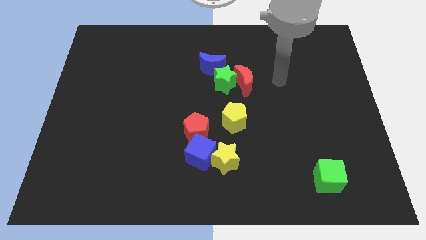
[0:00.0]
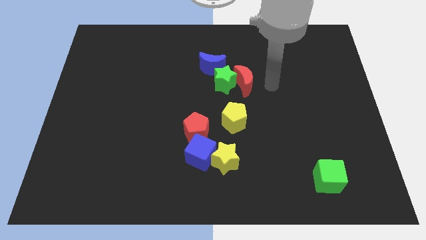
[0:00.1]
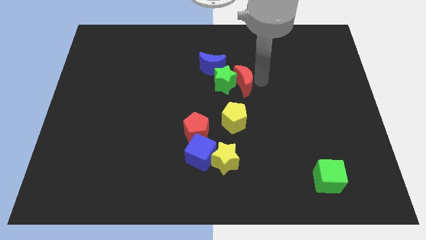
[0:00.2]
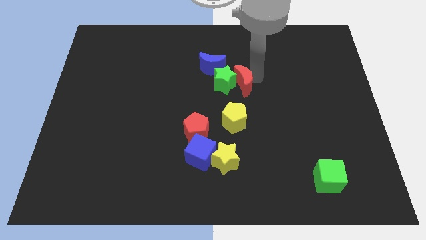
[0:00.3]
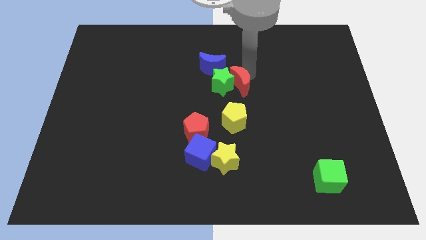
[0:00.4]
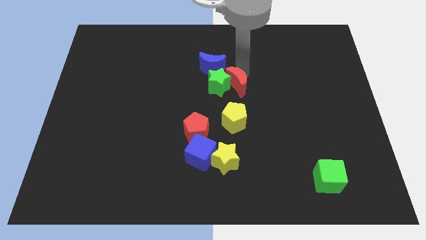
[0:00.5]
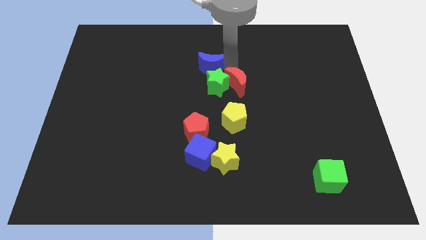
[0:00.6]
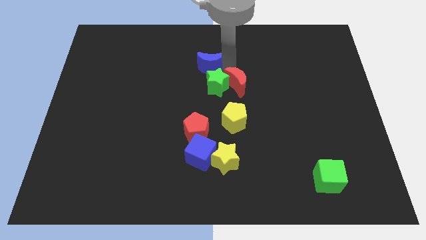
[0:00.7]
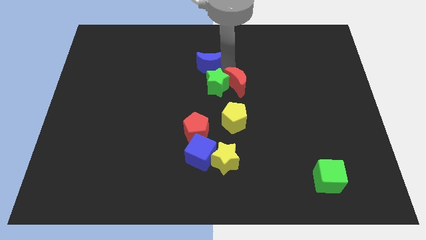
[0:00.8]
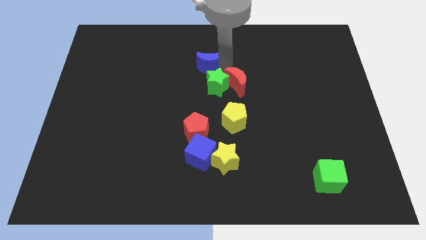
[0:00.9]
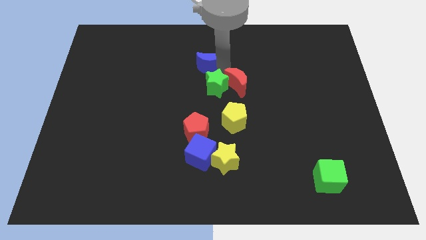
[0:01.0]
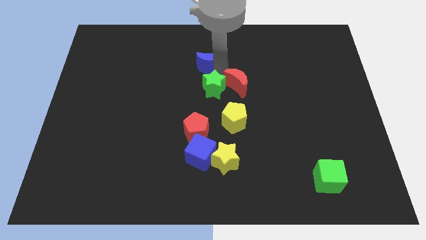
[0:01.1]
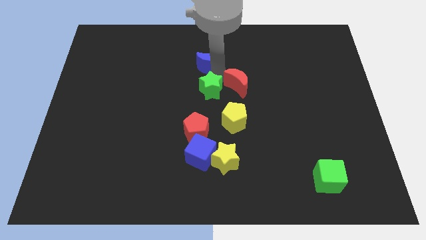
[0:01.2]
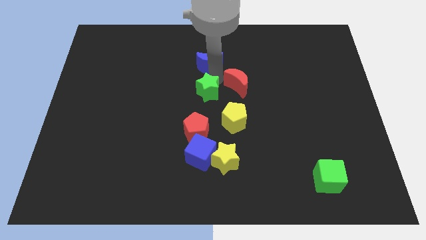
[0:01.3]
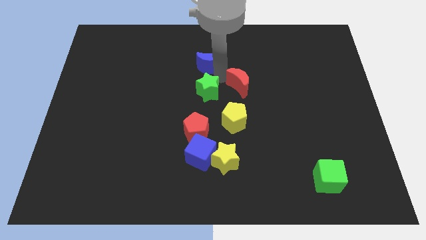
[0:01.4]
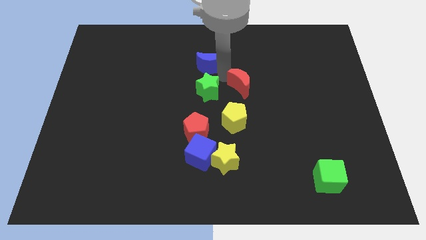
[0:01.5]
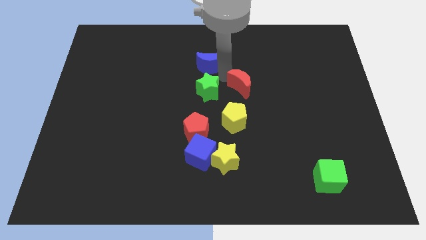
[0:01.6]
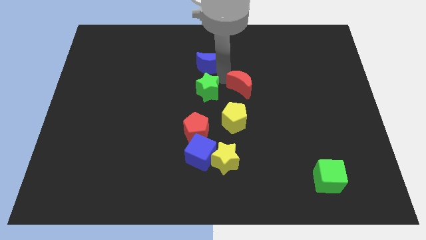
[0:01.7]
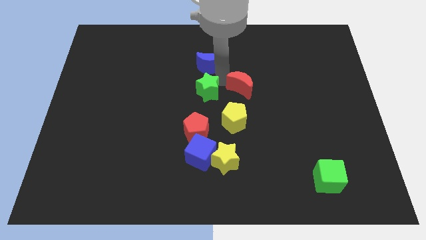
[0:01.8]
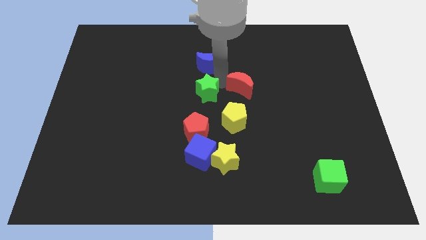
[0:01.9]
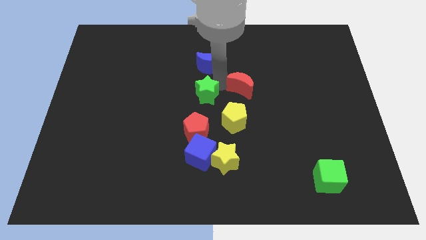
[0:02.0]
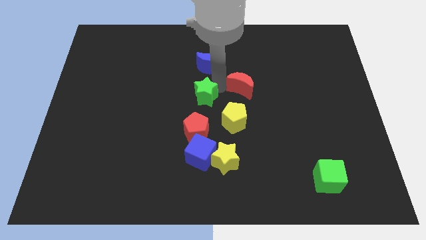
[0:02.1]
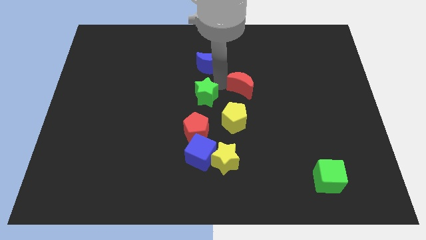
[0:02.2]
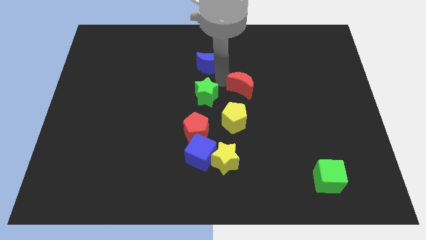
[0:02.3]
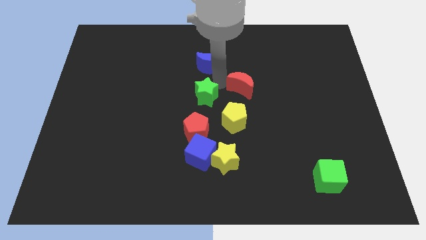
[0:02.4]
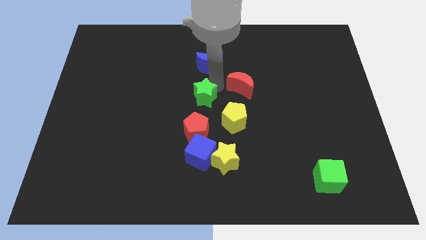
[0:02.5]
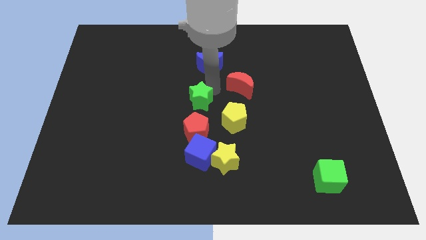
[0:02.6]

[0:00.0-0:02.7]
pull the green star apart from the red moon and blue moon

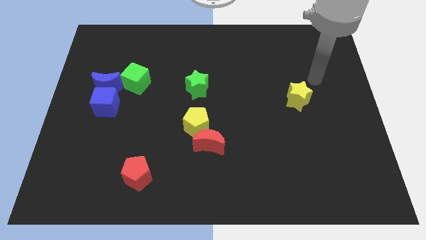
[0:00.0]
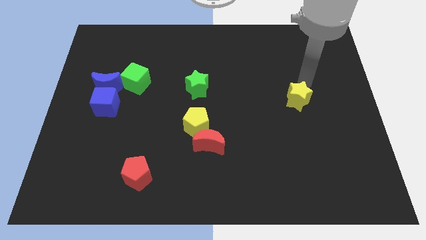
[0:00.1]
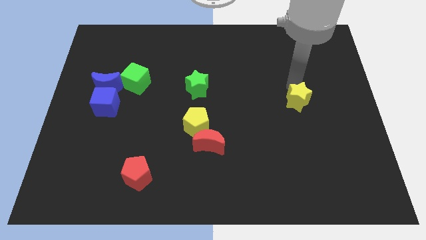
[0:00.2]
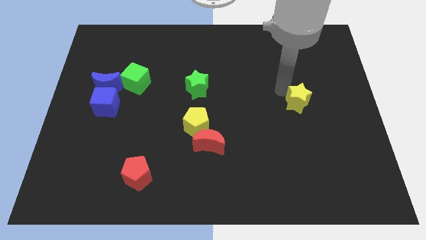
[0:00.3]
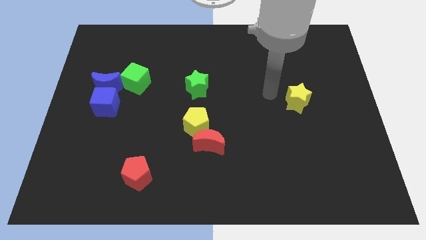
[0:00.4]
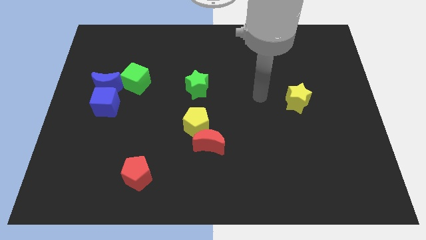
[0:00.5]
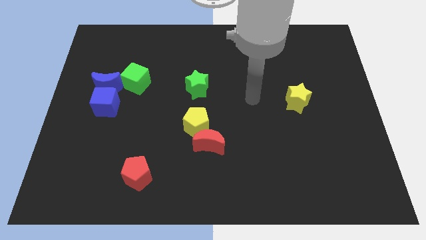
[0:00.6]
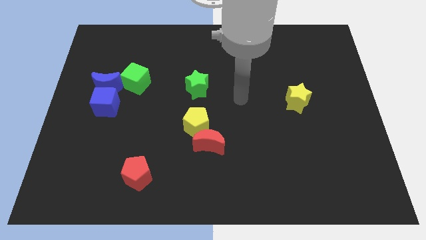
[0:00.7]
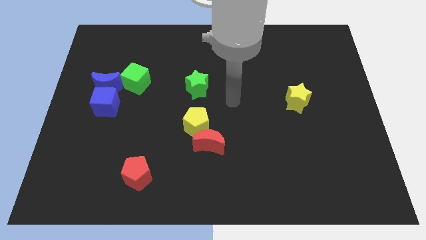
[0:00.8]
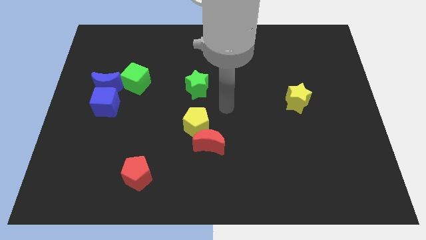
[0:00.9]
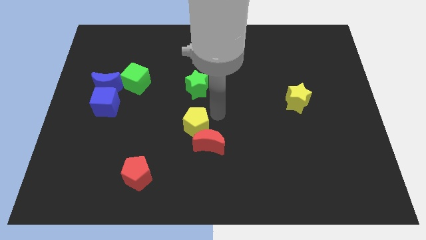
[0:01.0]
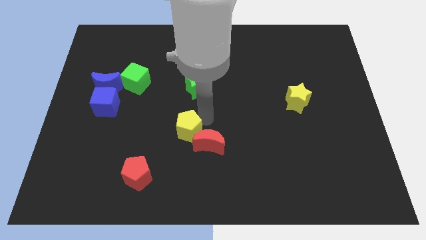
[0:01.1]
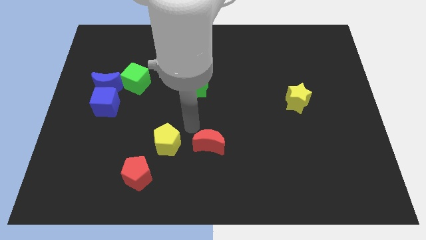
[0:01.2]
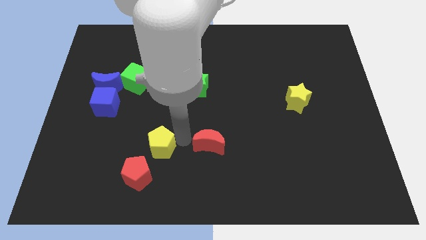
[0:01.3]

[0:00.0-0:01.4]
separate the red moon from the yellow pentagon

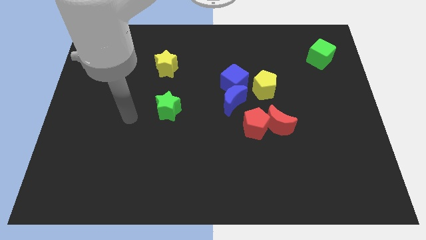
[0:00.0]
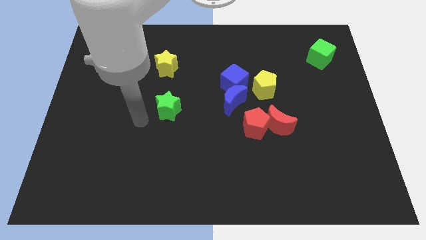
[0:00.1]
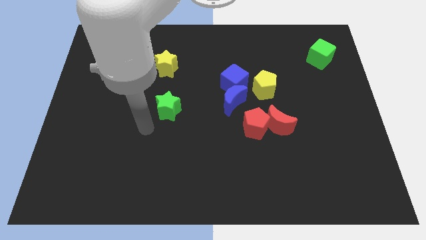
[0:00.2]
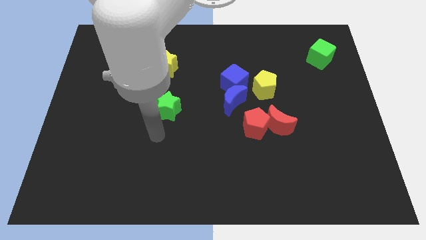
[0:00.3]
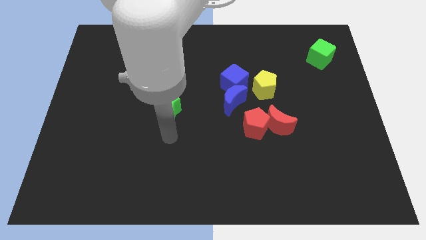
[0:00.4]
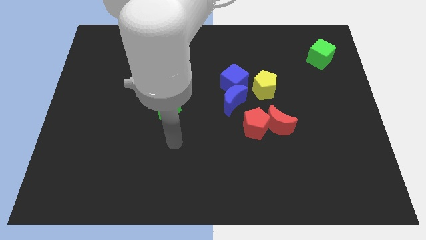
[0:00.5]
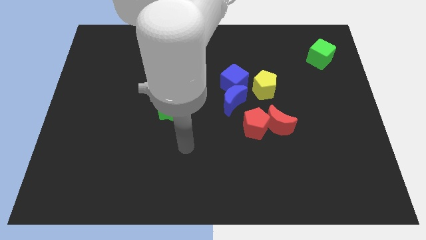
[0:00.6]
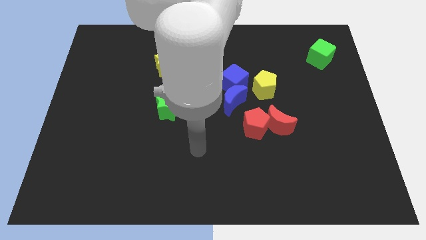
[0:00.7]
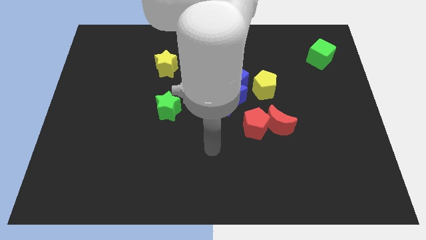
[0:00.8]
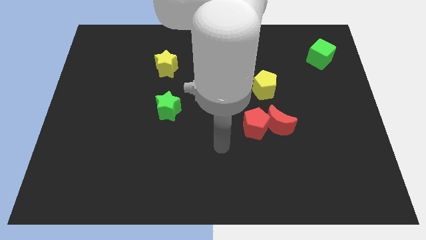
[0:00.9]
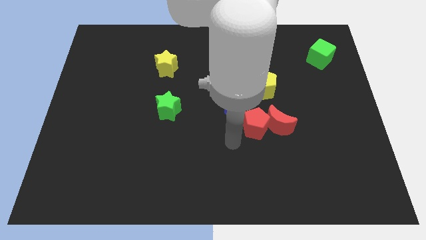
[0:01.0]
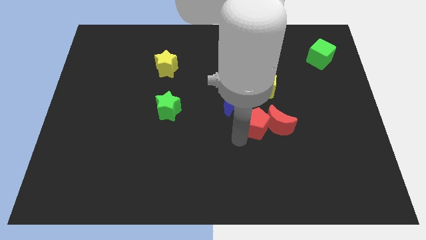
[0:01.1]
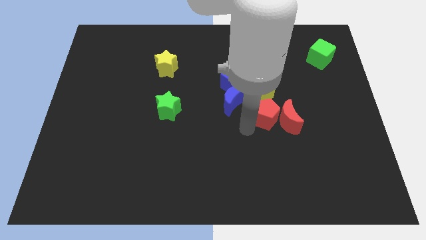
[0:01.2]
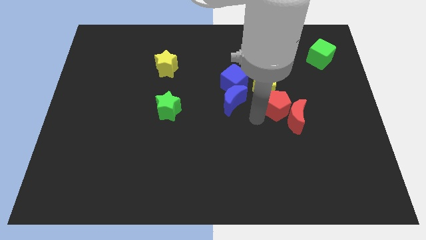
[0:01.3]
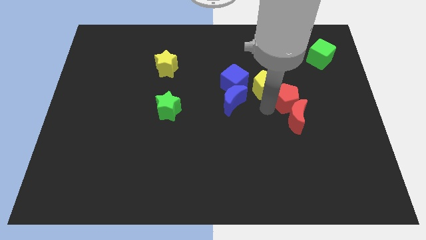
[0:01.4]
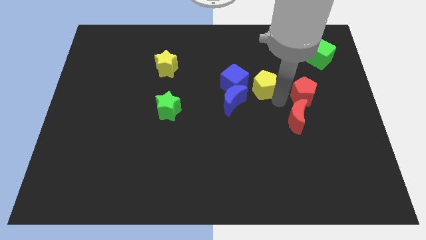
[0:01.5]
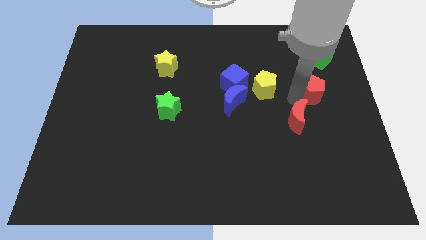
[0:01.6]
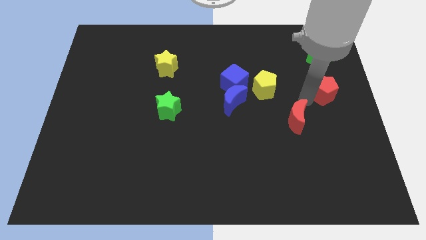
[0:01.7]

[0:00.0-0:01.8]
pull the red moon apart from the red pentagon

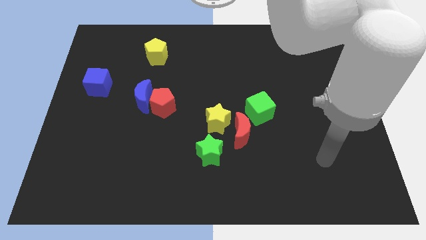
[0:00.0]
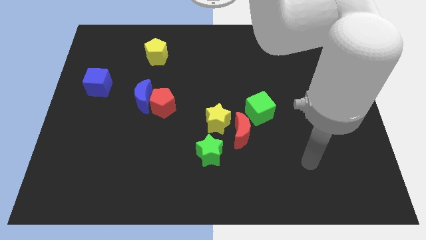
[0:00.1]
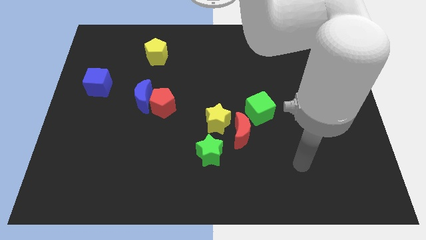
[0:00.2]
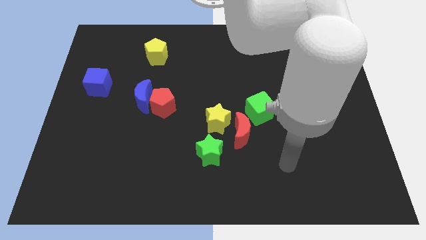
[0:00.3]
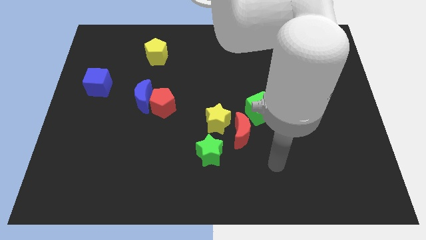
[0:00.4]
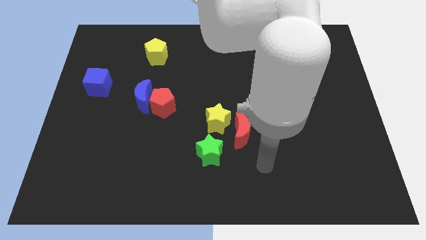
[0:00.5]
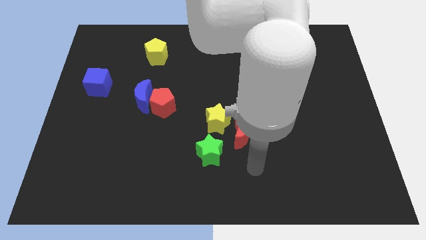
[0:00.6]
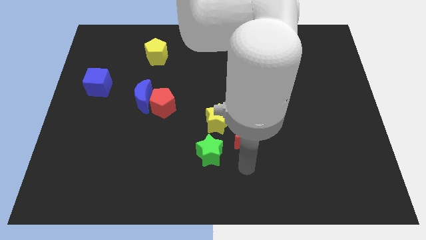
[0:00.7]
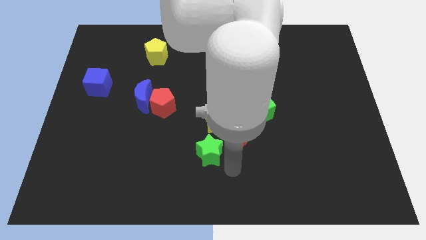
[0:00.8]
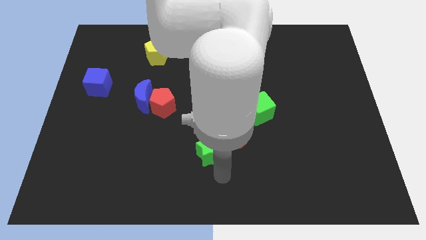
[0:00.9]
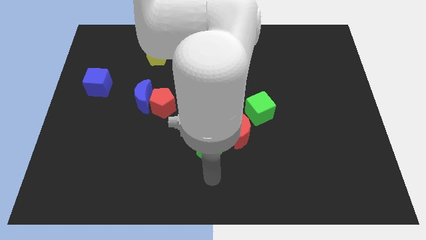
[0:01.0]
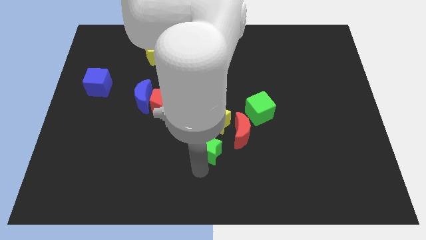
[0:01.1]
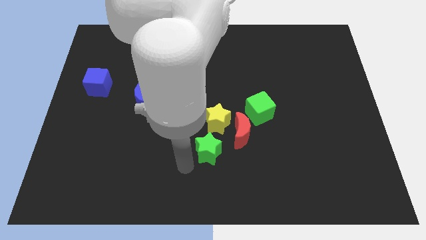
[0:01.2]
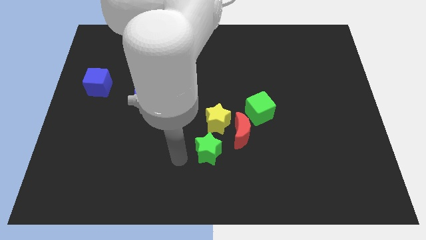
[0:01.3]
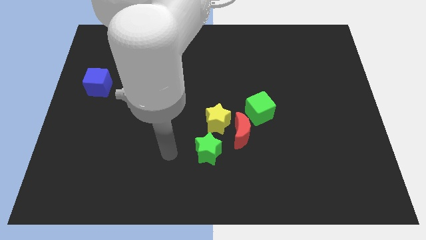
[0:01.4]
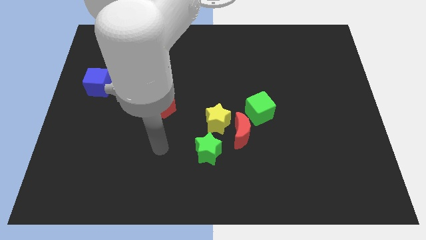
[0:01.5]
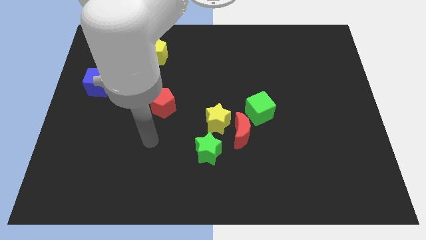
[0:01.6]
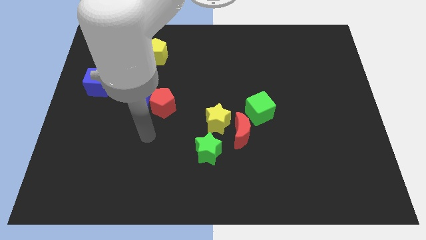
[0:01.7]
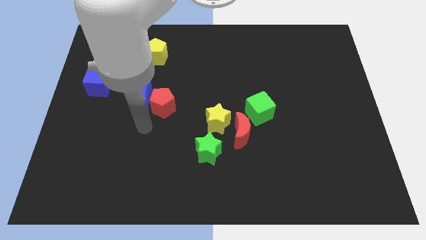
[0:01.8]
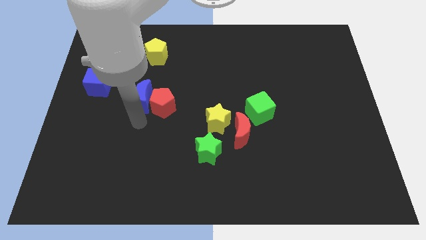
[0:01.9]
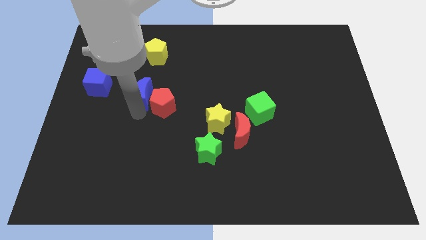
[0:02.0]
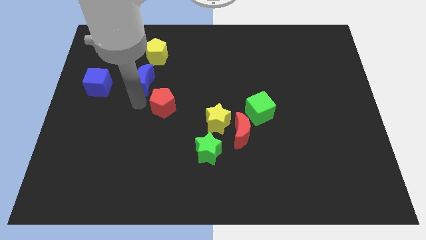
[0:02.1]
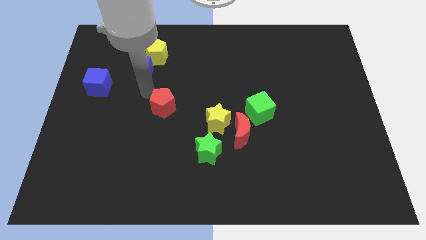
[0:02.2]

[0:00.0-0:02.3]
separate the red pentagon from the blue moon

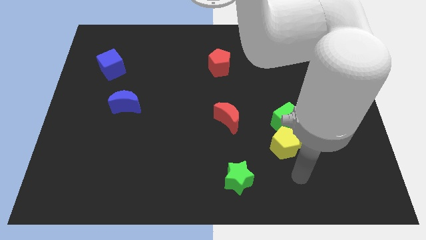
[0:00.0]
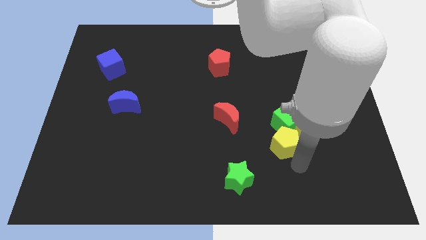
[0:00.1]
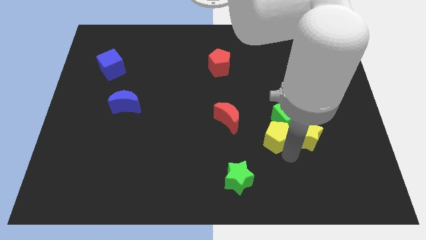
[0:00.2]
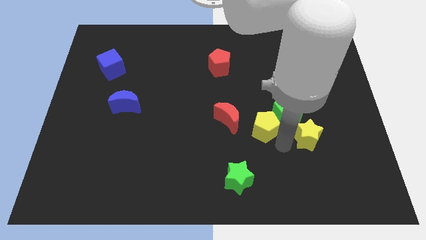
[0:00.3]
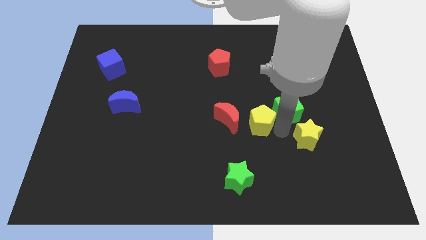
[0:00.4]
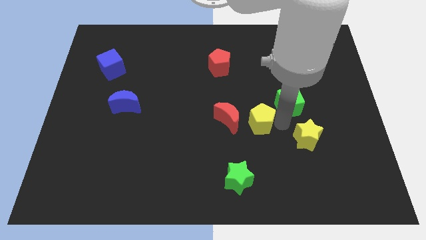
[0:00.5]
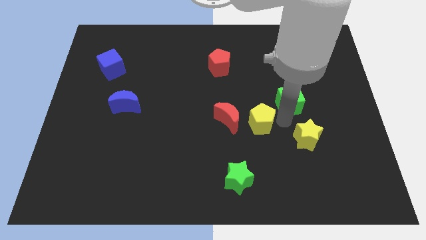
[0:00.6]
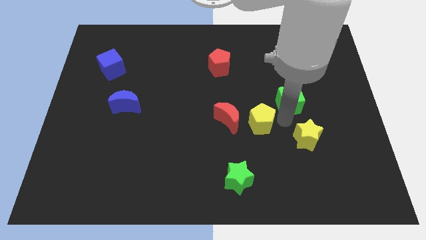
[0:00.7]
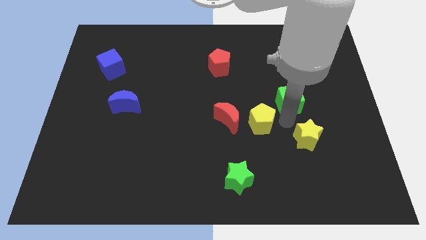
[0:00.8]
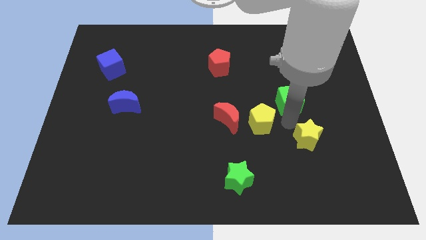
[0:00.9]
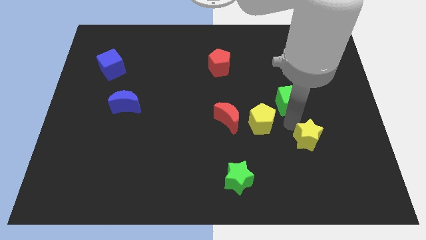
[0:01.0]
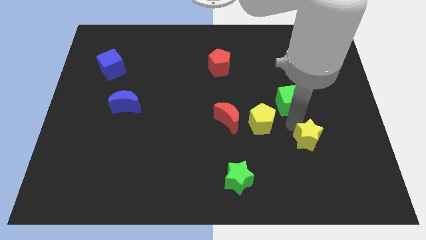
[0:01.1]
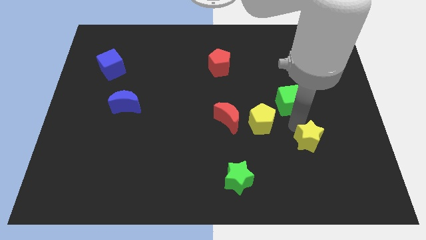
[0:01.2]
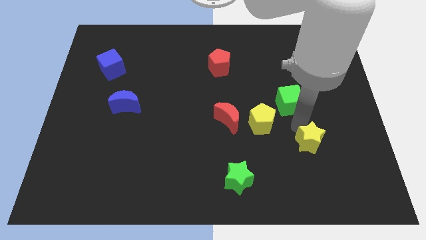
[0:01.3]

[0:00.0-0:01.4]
pull the yellow star apart from the yellow pentagon and green cube
